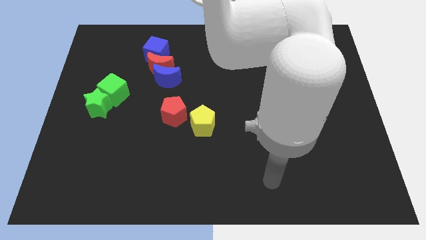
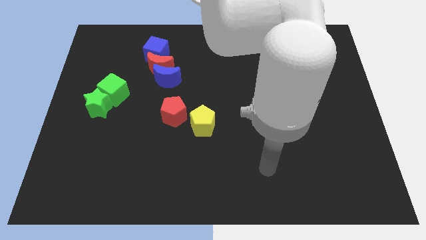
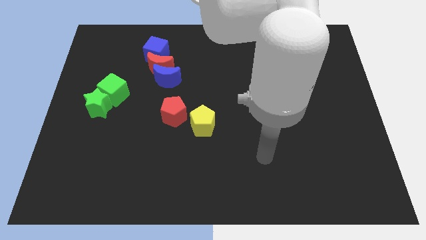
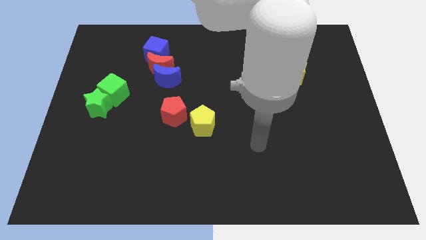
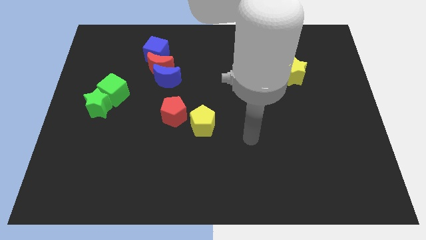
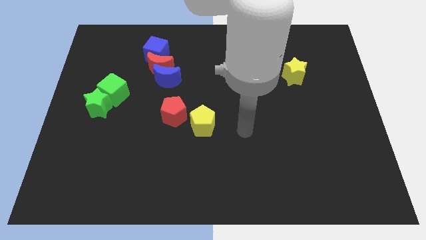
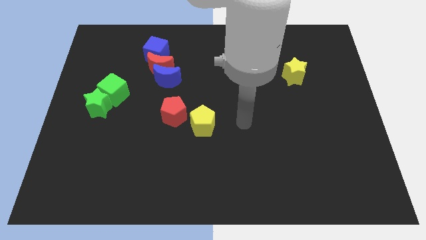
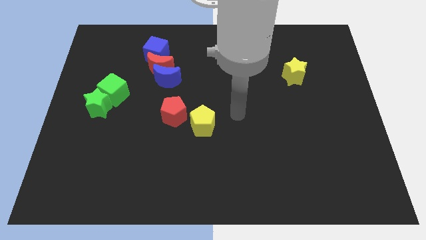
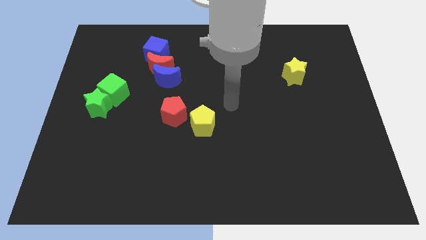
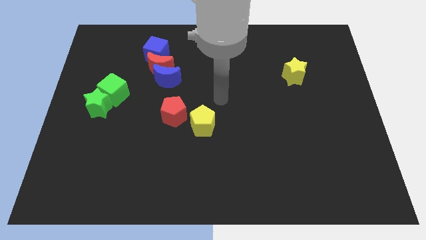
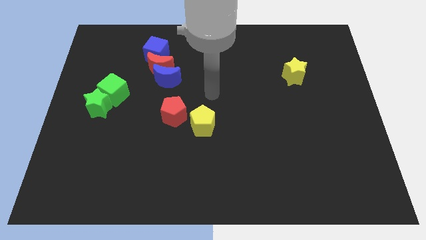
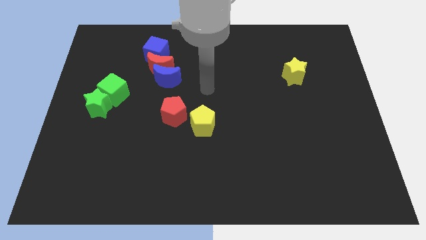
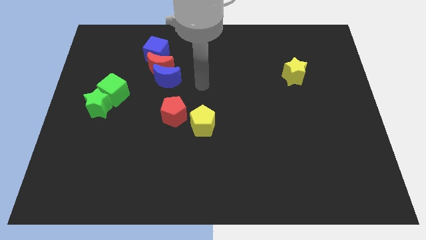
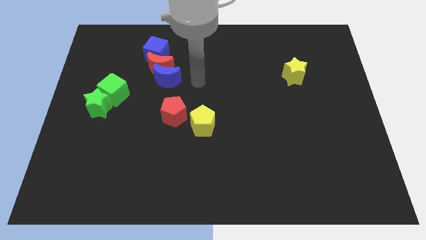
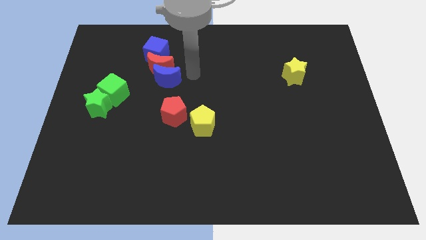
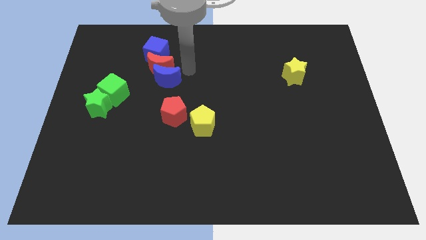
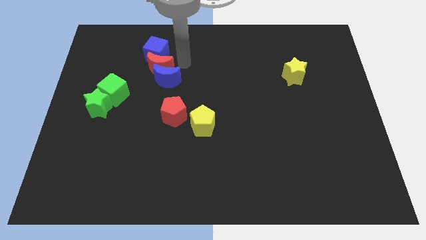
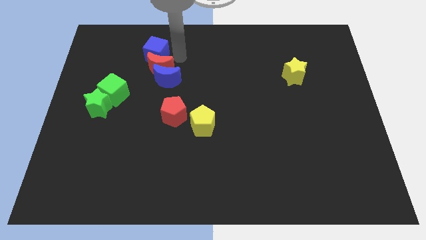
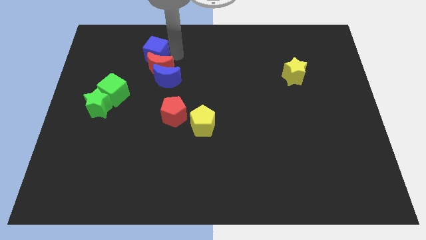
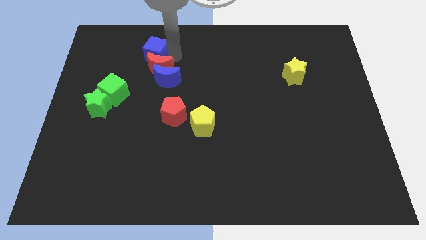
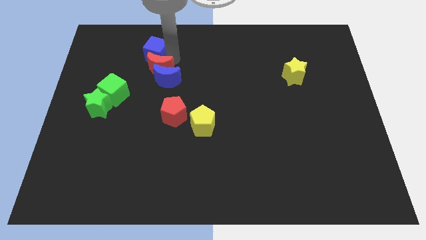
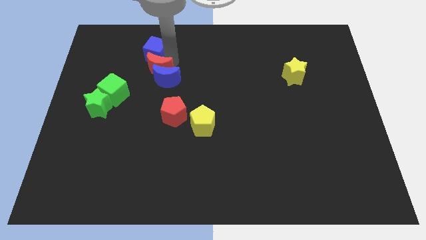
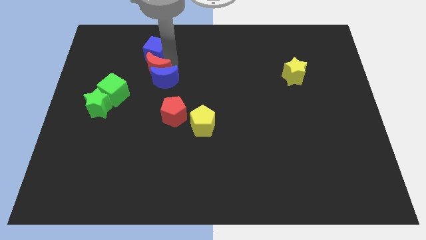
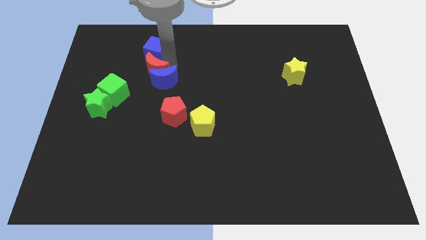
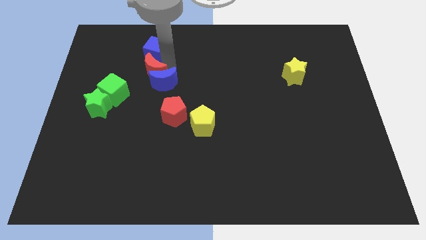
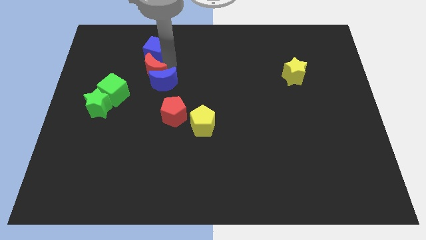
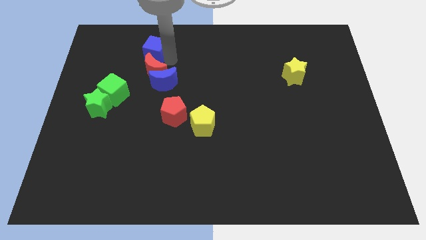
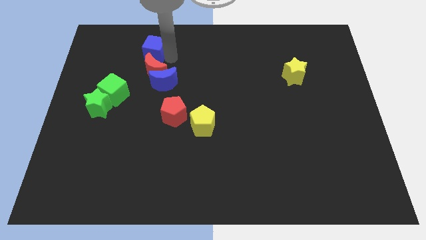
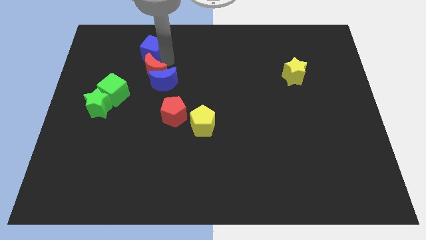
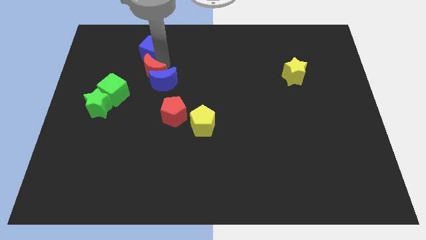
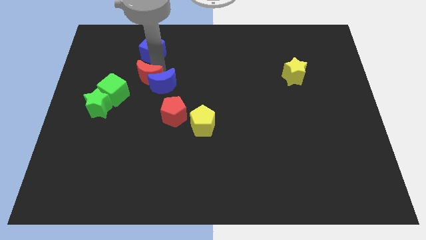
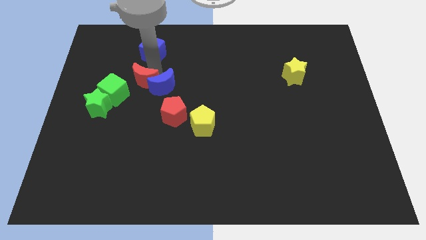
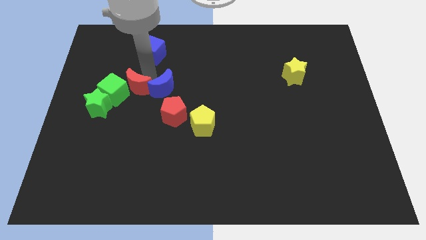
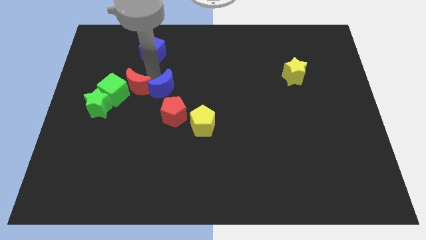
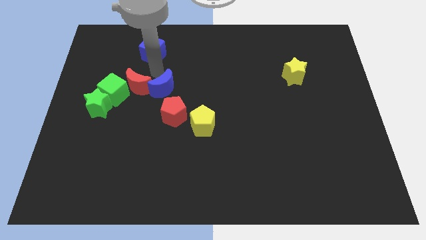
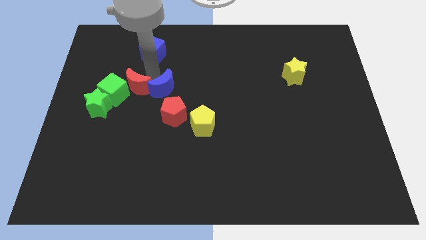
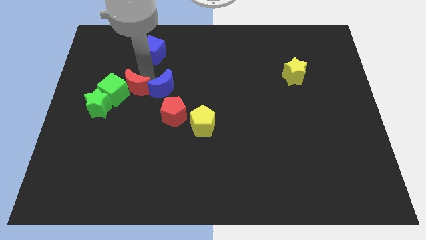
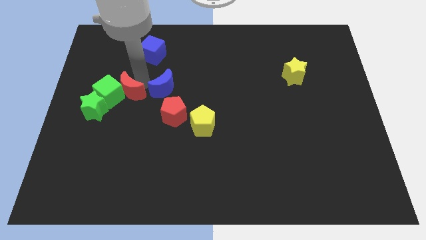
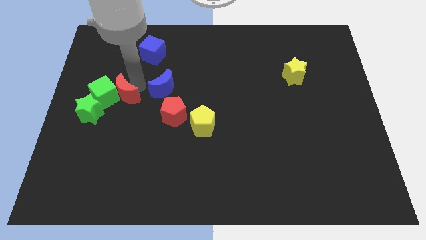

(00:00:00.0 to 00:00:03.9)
move the red moon away from the blue moon and blue cube

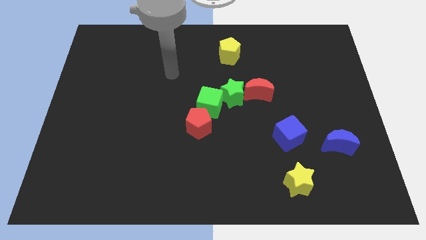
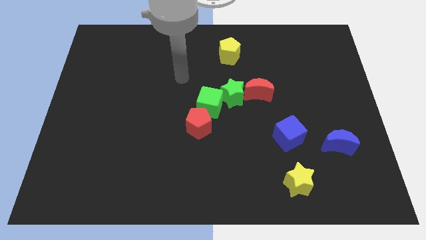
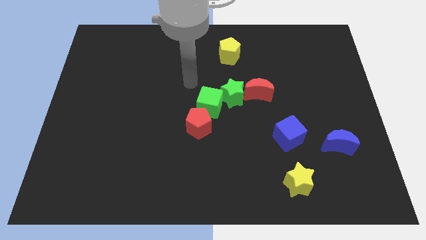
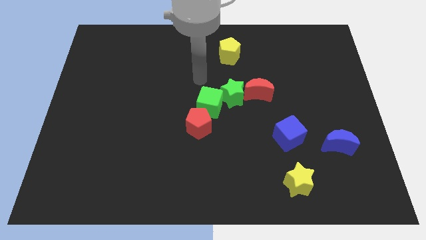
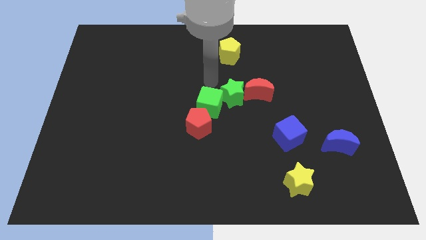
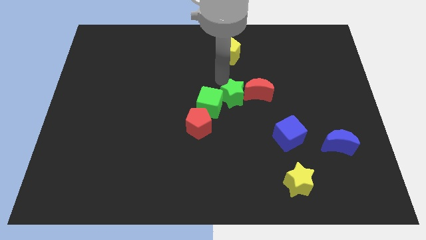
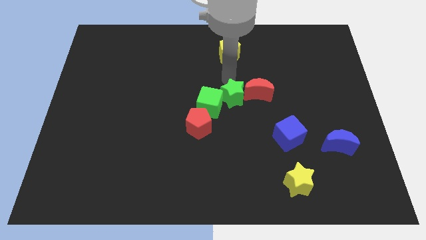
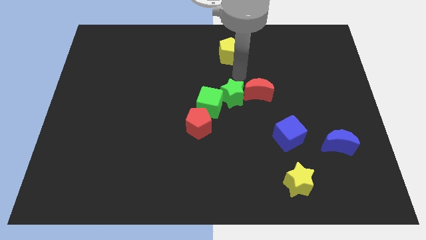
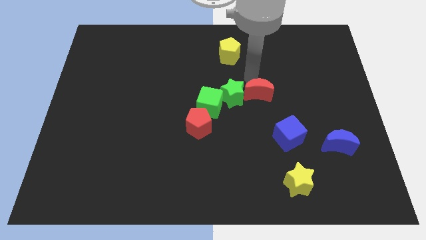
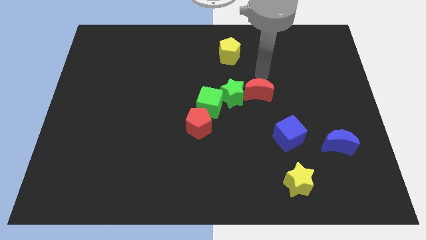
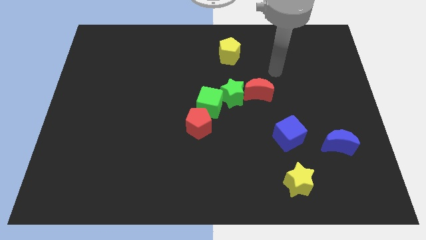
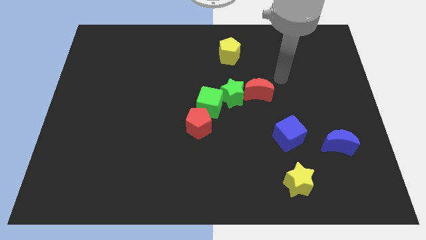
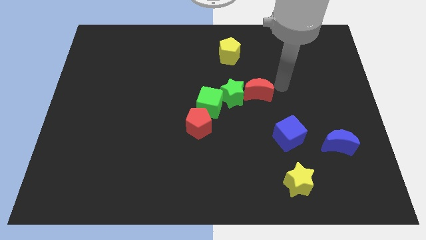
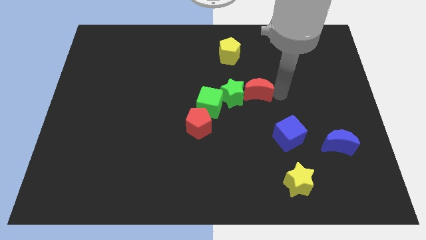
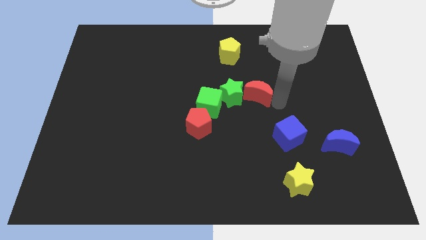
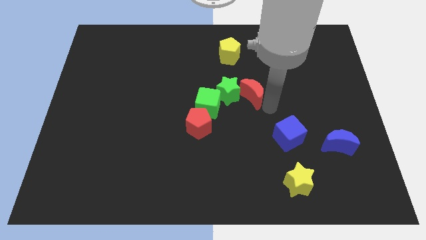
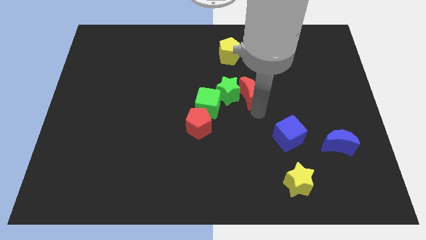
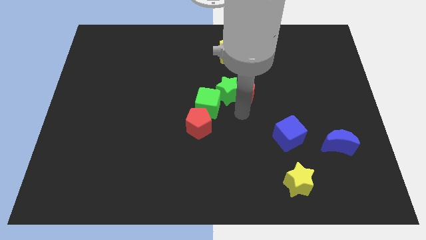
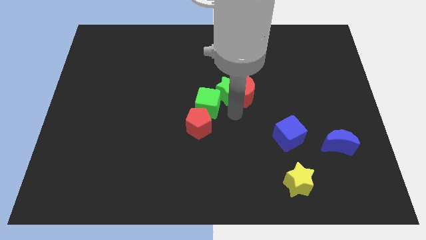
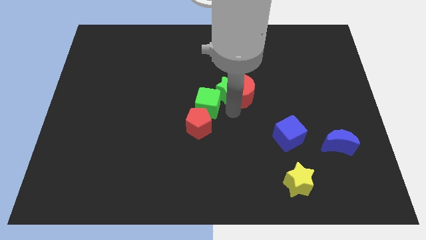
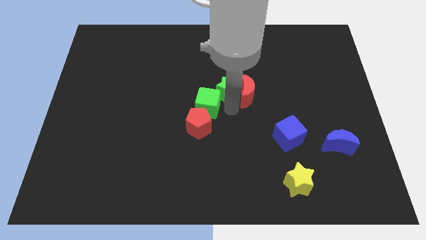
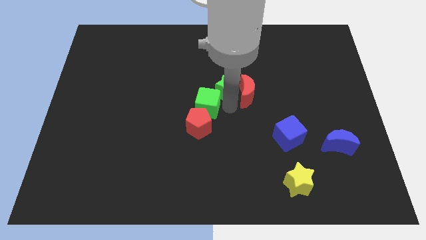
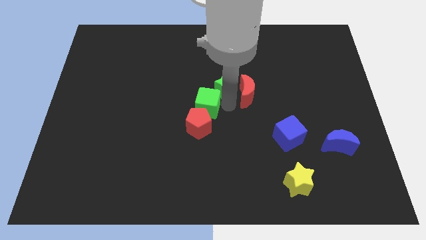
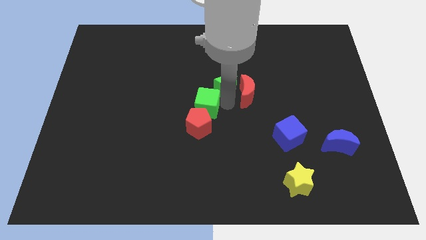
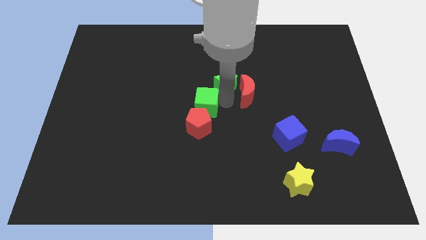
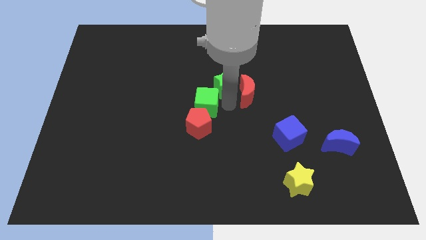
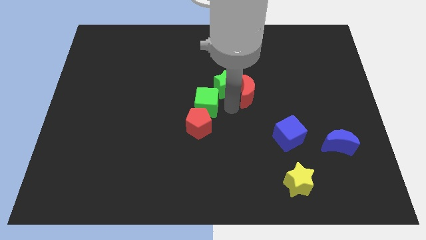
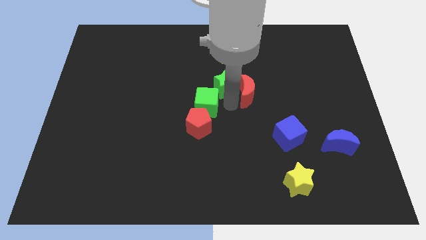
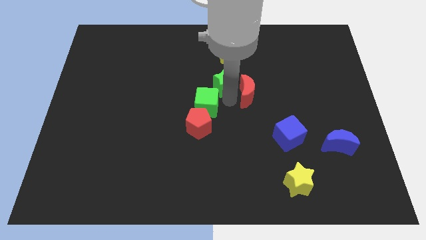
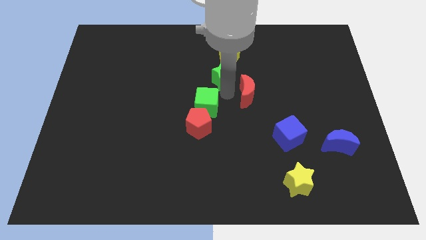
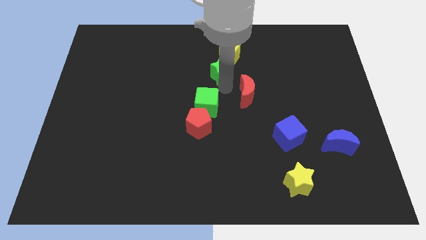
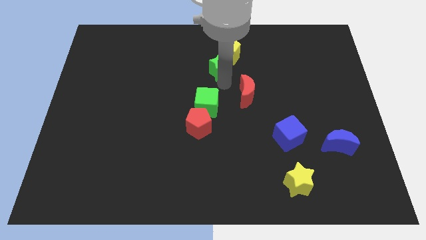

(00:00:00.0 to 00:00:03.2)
move the green star away from the green cube and red moon

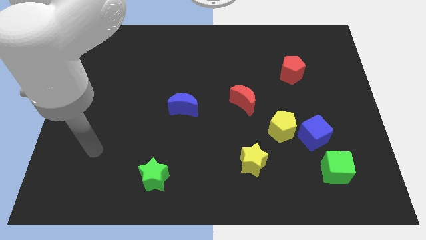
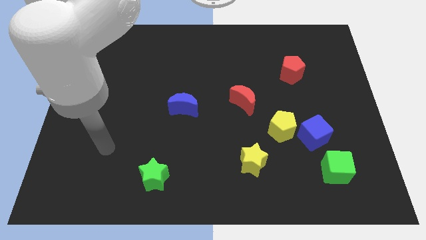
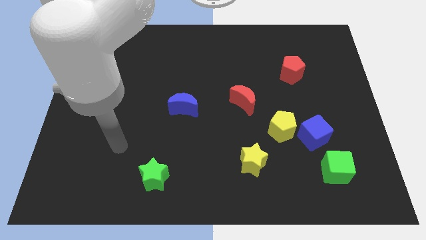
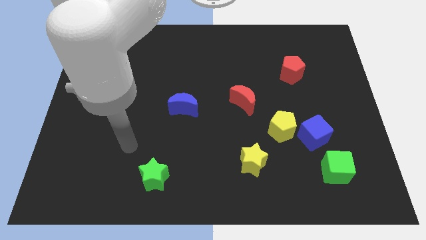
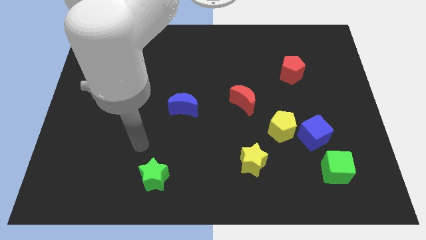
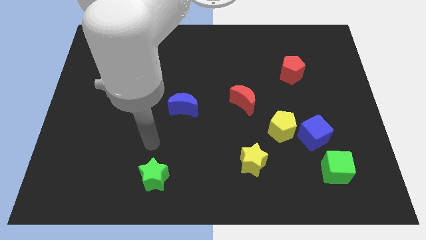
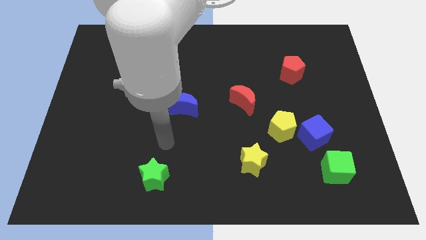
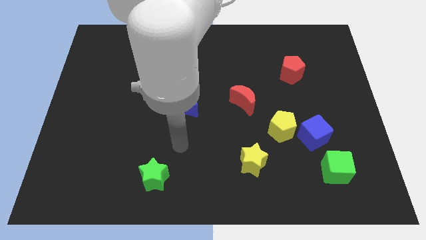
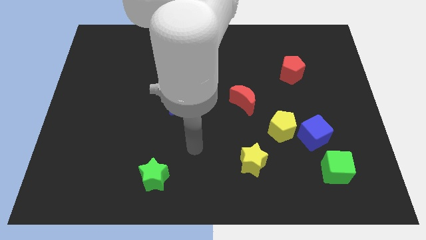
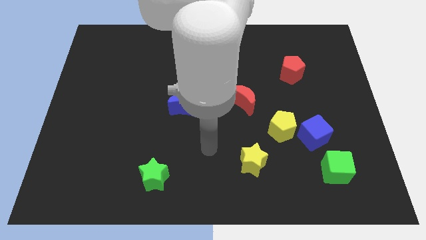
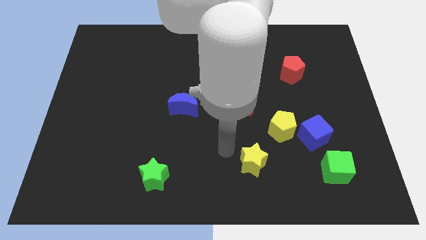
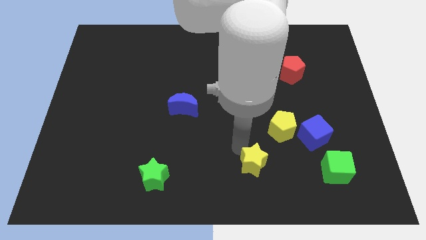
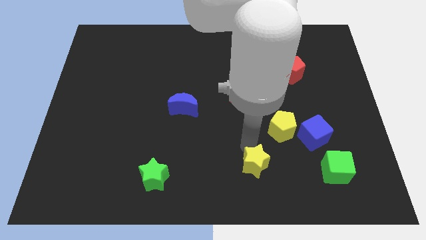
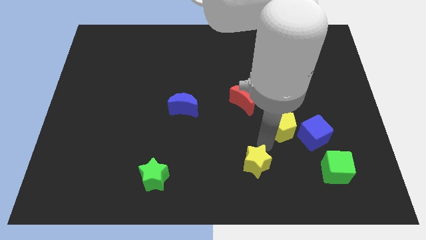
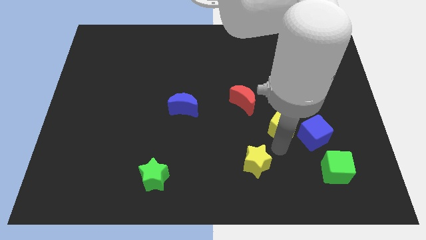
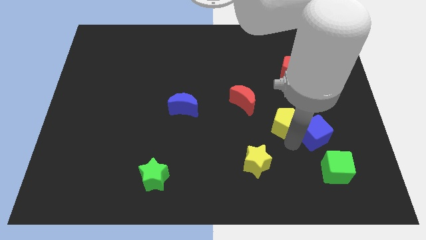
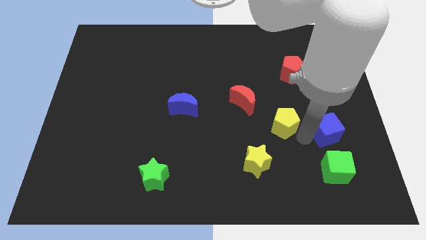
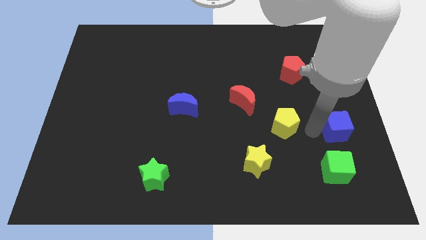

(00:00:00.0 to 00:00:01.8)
pull the yellow pentagon apart from the blue cube

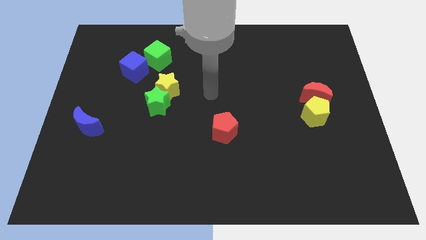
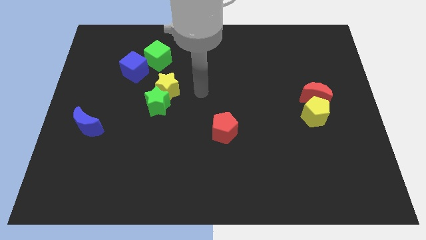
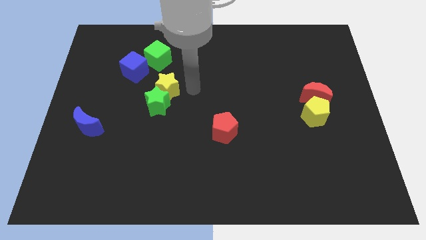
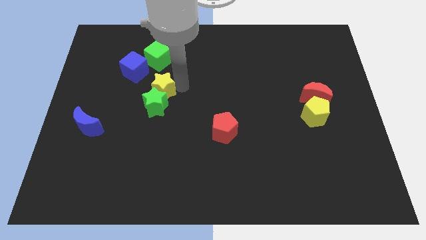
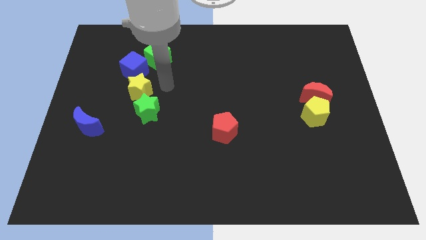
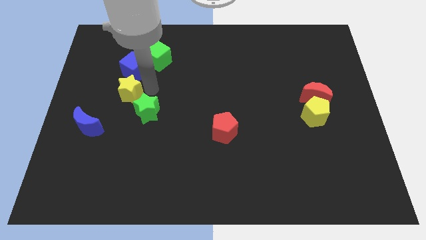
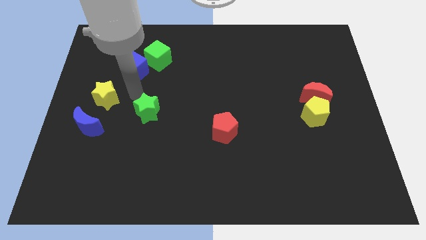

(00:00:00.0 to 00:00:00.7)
move the green star away from the yellow star
